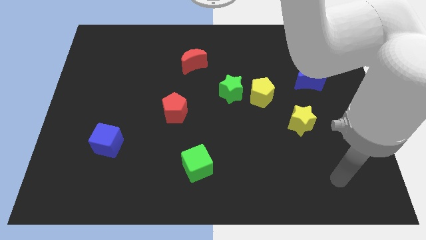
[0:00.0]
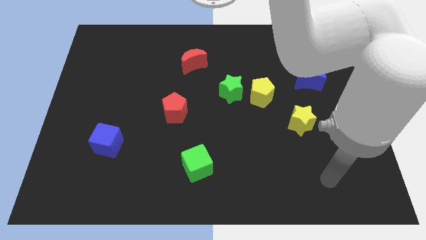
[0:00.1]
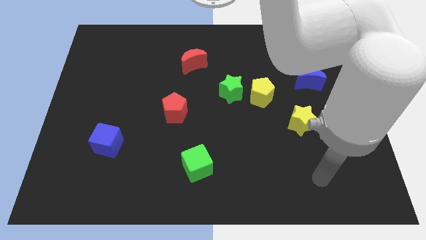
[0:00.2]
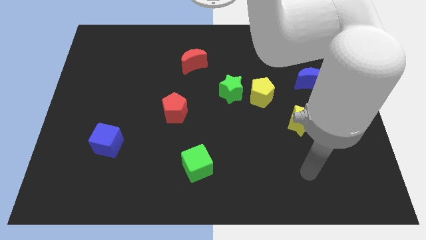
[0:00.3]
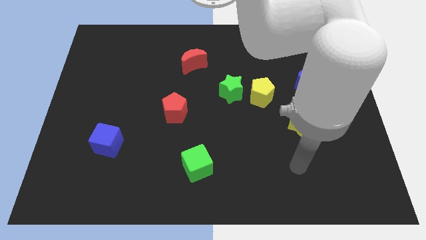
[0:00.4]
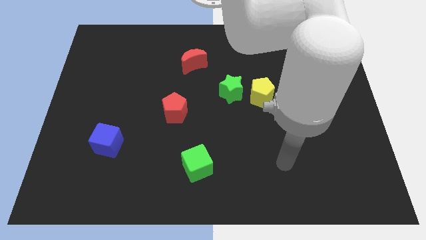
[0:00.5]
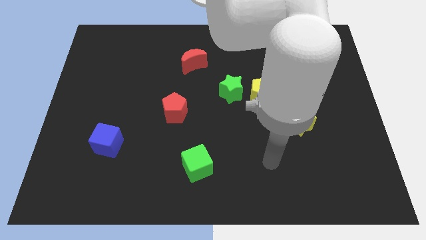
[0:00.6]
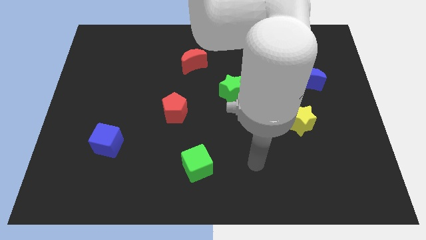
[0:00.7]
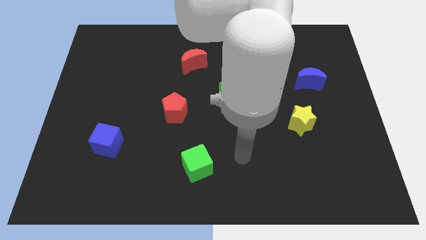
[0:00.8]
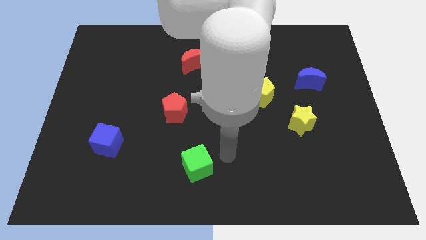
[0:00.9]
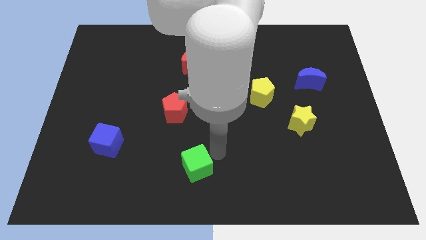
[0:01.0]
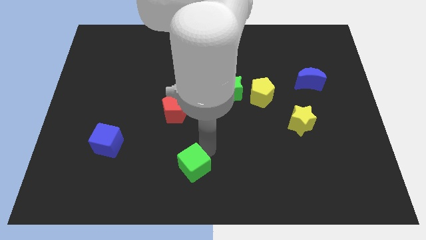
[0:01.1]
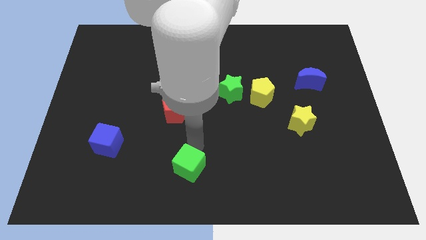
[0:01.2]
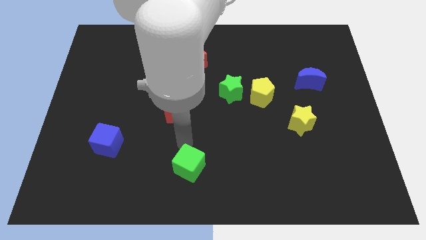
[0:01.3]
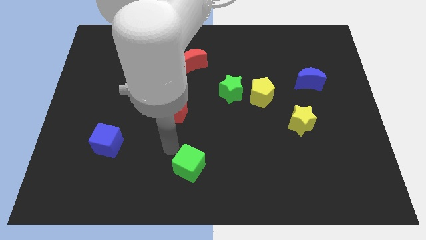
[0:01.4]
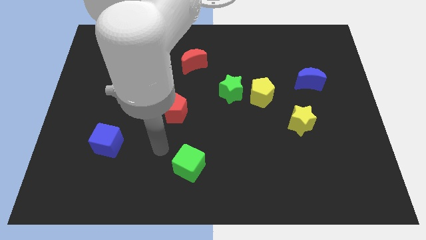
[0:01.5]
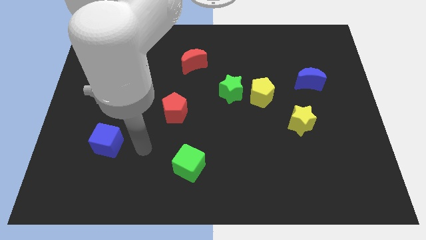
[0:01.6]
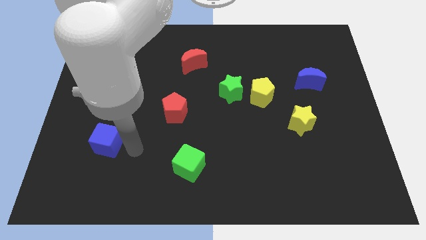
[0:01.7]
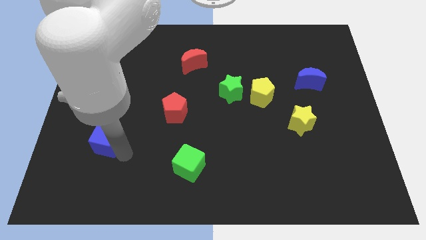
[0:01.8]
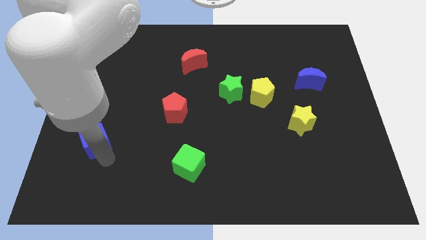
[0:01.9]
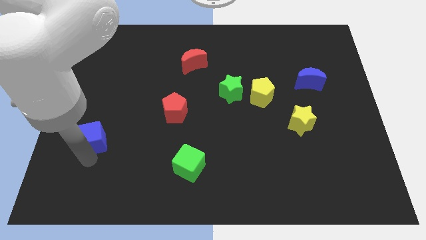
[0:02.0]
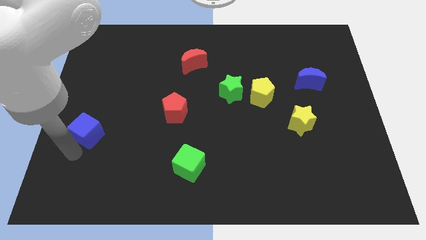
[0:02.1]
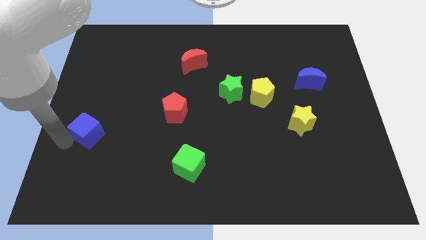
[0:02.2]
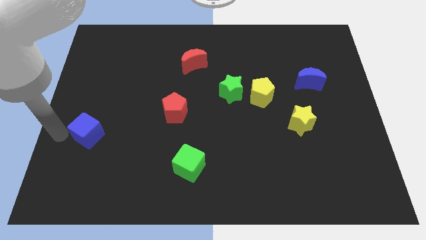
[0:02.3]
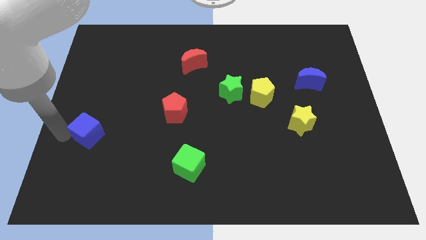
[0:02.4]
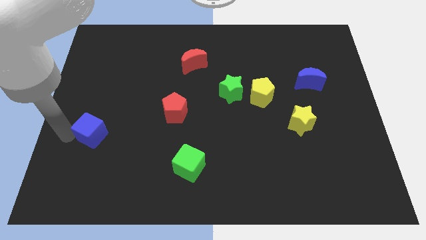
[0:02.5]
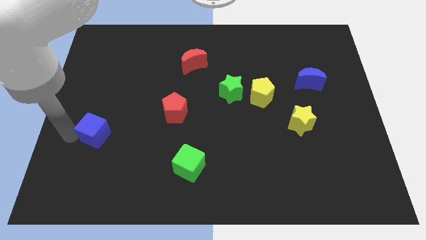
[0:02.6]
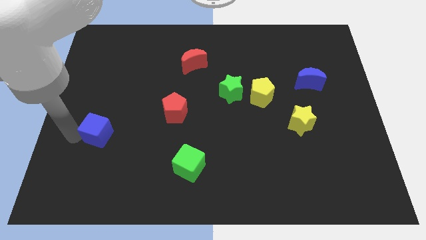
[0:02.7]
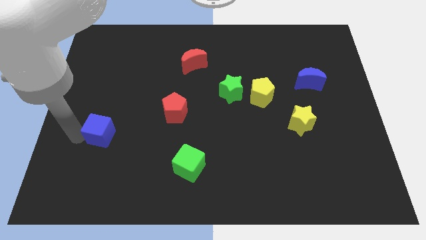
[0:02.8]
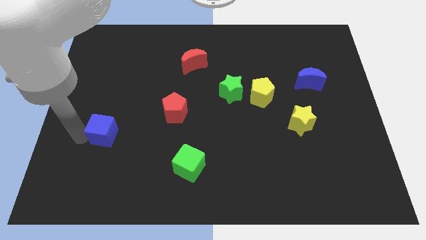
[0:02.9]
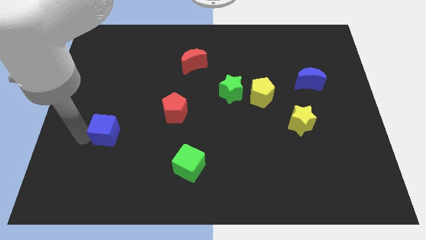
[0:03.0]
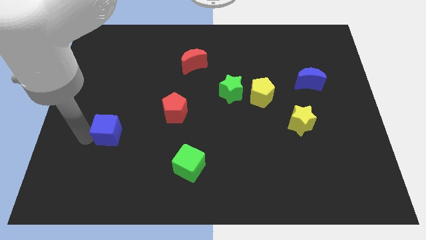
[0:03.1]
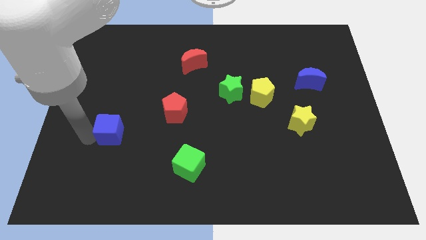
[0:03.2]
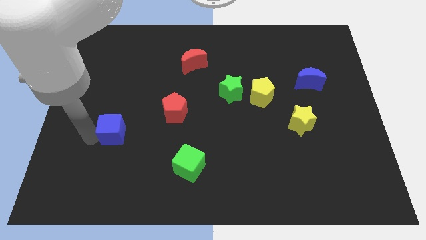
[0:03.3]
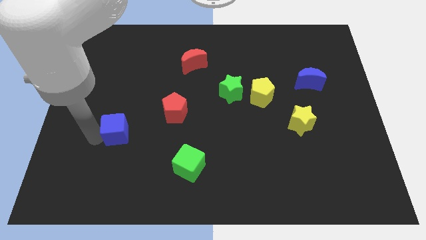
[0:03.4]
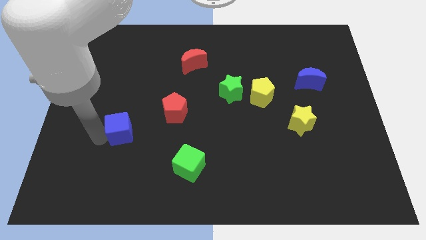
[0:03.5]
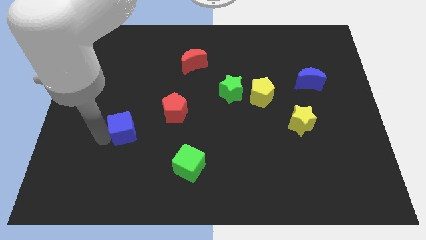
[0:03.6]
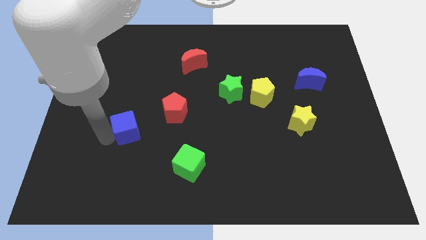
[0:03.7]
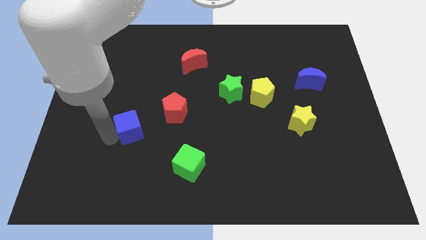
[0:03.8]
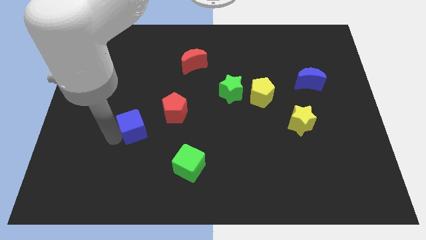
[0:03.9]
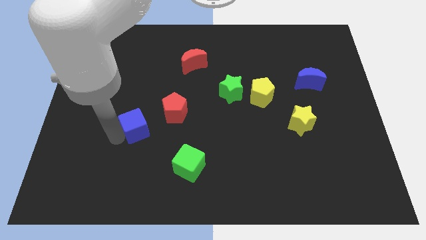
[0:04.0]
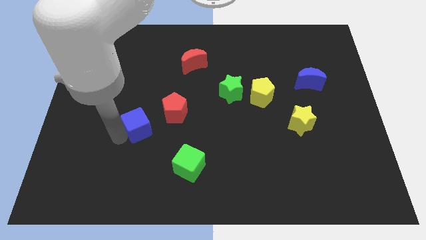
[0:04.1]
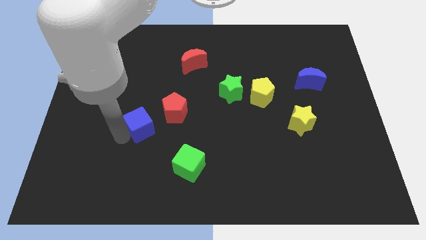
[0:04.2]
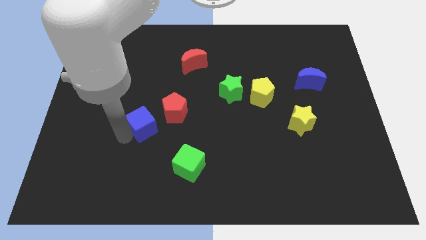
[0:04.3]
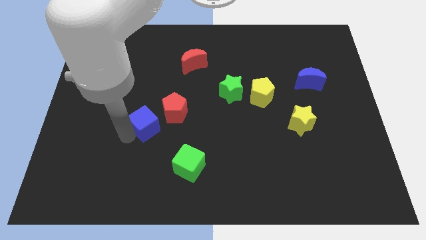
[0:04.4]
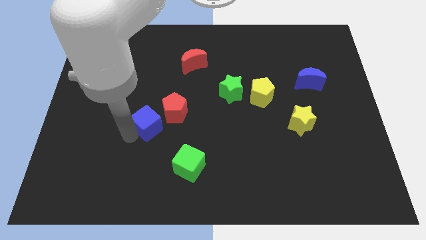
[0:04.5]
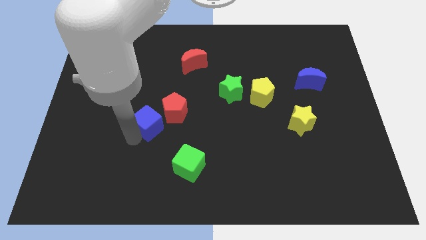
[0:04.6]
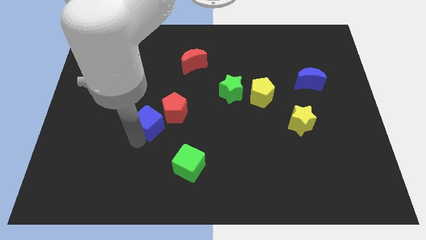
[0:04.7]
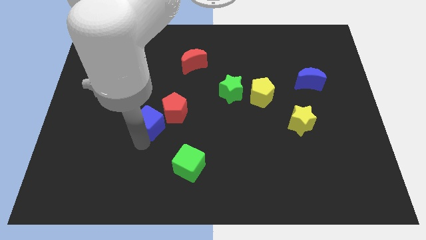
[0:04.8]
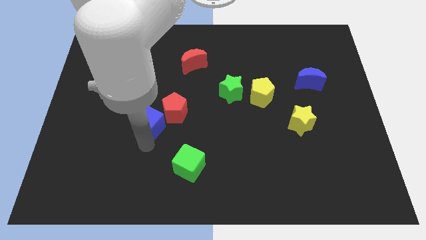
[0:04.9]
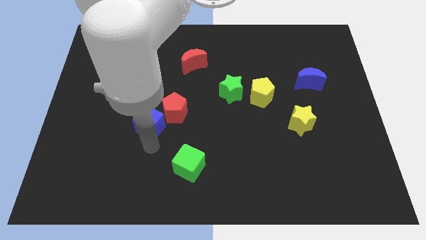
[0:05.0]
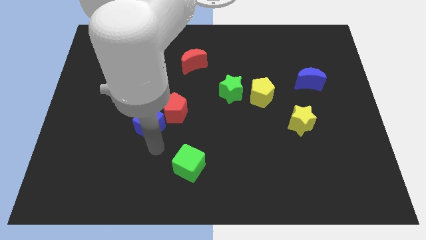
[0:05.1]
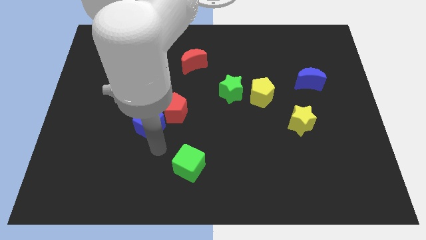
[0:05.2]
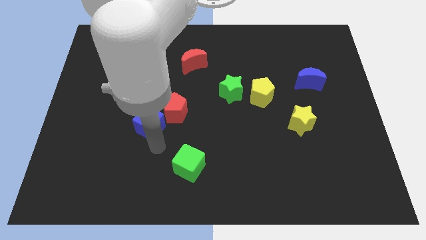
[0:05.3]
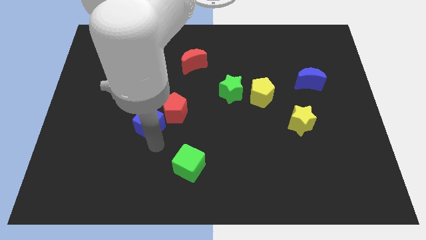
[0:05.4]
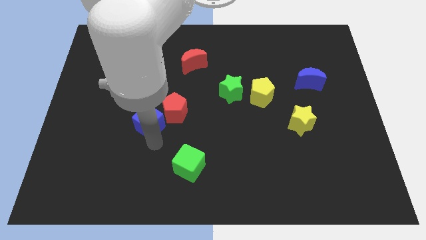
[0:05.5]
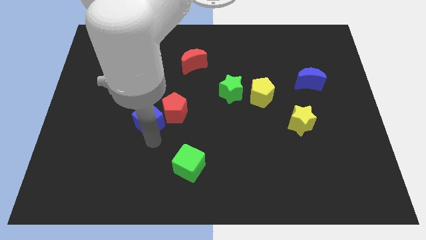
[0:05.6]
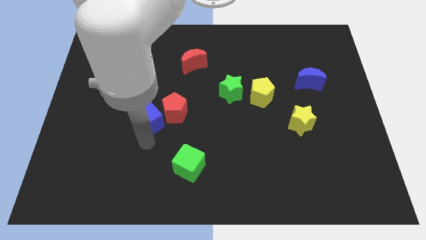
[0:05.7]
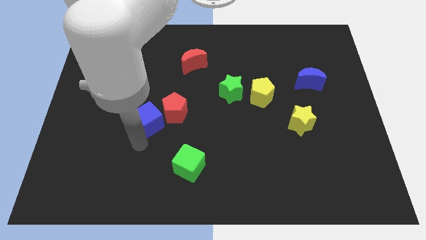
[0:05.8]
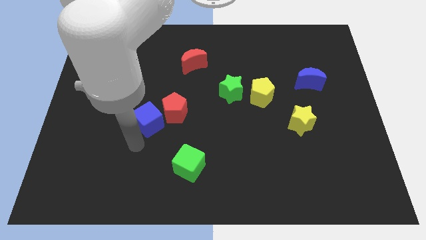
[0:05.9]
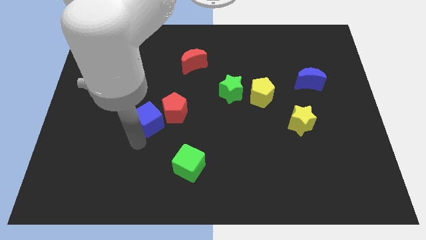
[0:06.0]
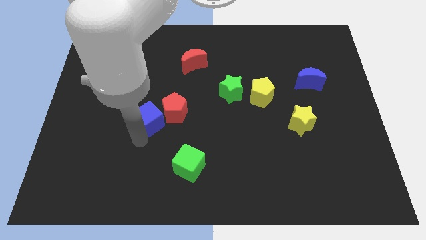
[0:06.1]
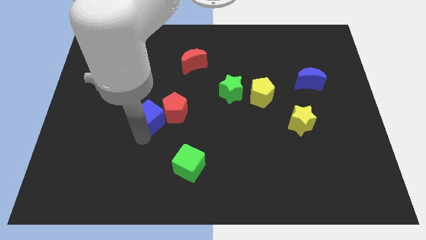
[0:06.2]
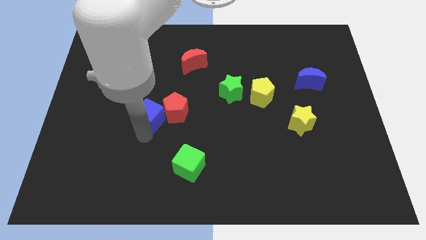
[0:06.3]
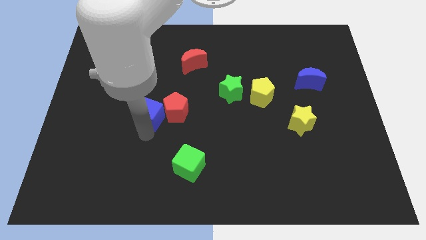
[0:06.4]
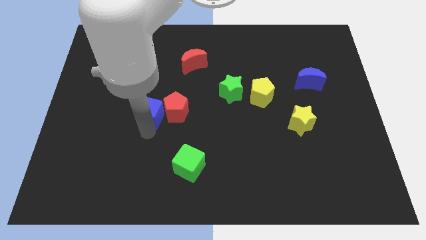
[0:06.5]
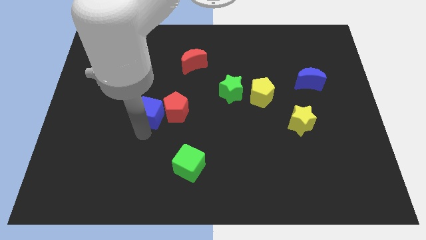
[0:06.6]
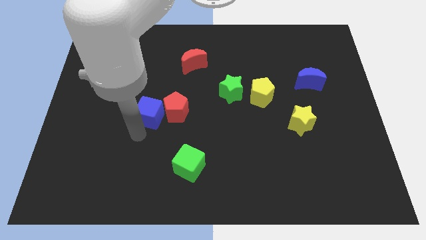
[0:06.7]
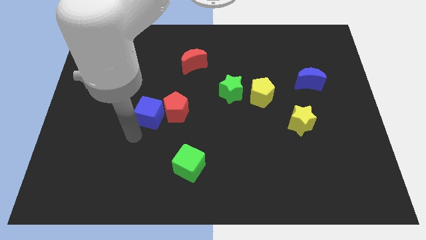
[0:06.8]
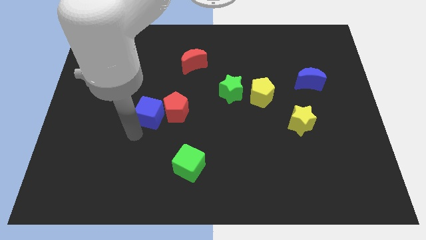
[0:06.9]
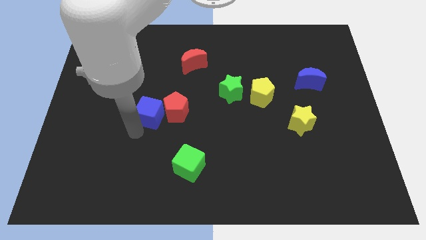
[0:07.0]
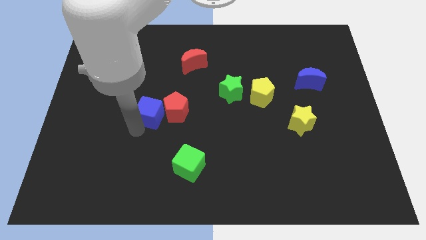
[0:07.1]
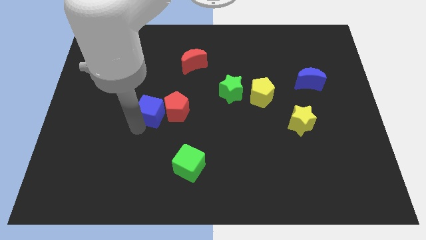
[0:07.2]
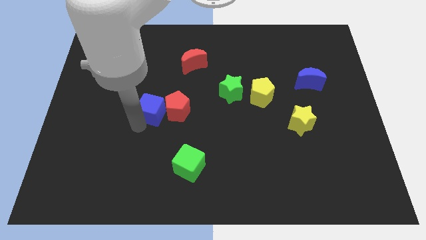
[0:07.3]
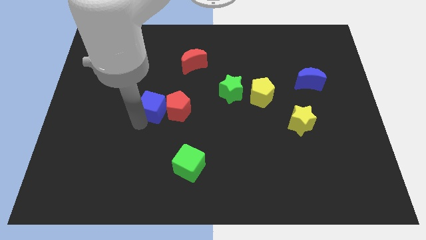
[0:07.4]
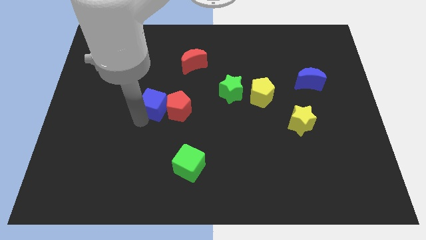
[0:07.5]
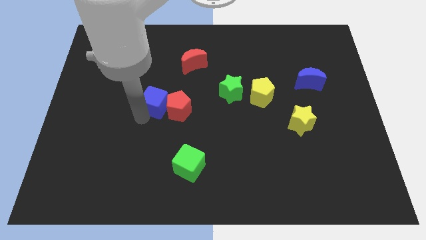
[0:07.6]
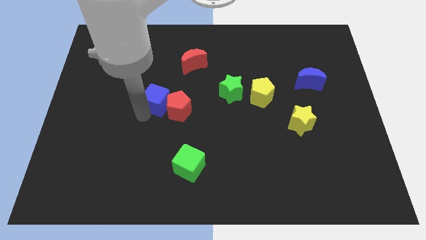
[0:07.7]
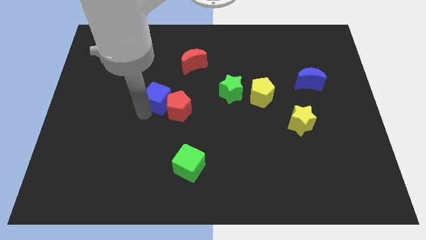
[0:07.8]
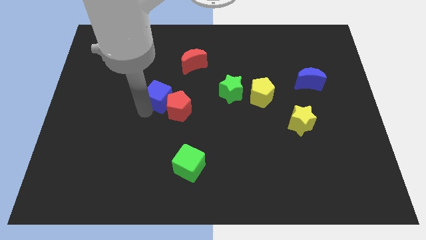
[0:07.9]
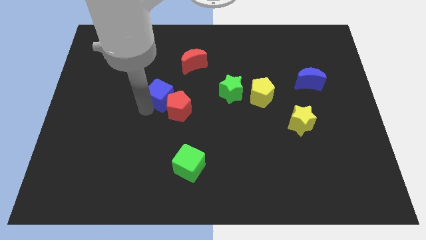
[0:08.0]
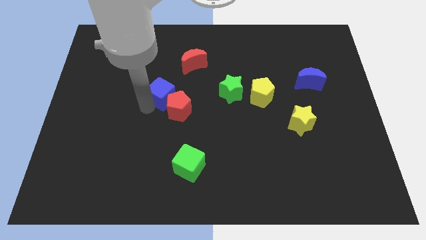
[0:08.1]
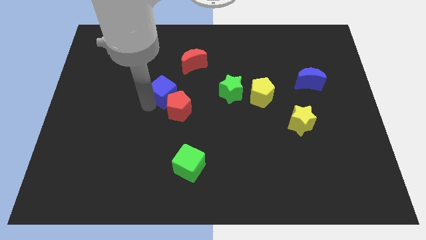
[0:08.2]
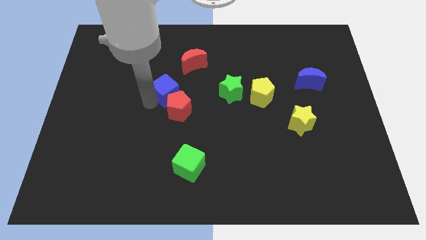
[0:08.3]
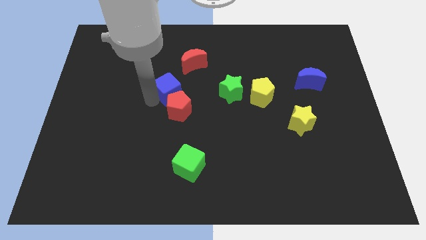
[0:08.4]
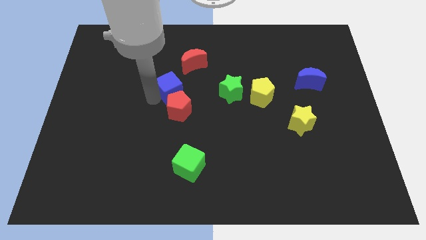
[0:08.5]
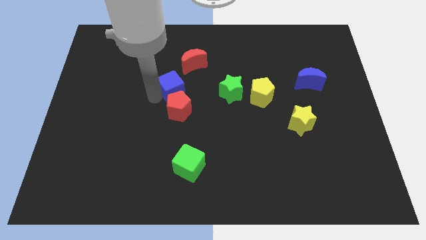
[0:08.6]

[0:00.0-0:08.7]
push the blue cube diagonally upwards and right
